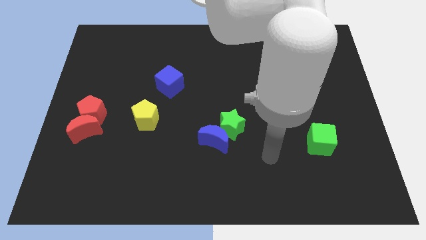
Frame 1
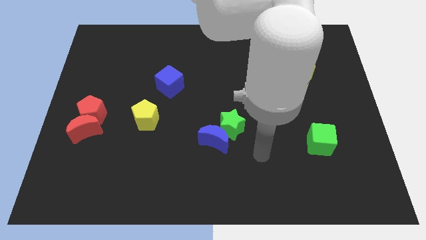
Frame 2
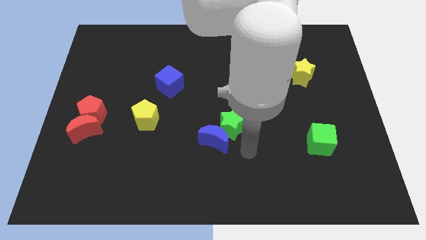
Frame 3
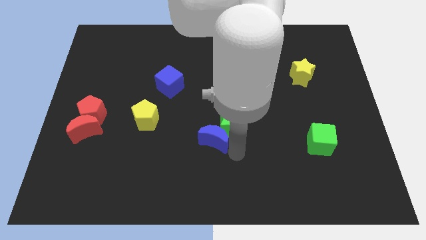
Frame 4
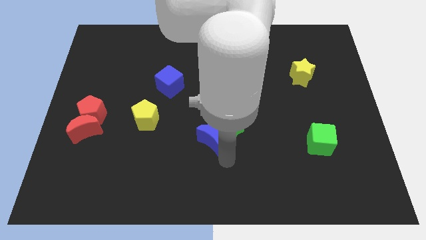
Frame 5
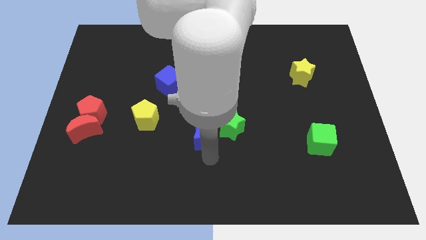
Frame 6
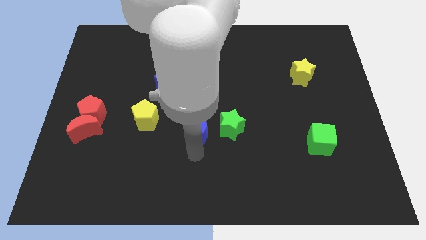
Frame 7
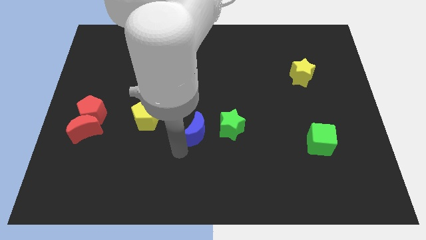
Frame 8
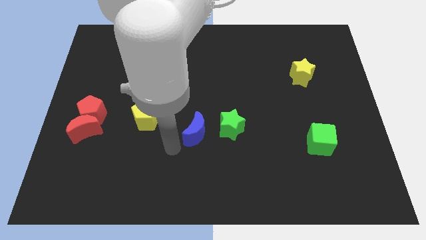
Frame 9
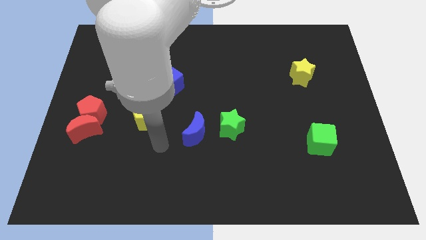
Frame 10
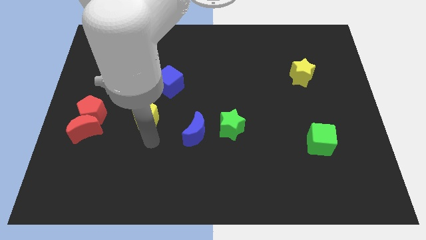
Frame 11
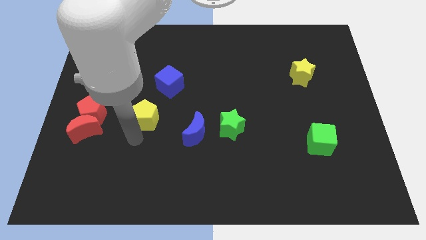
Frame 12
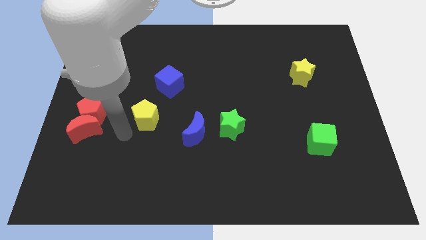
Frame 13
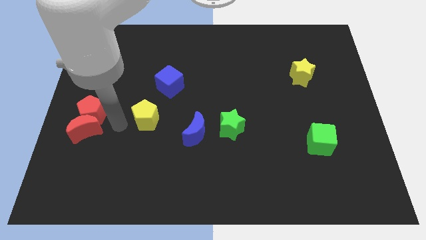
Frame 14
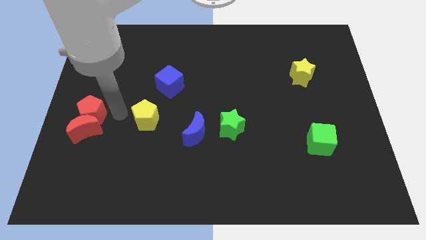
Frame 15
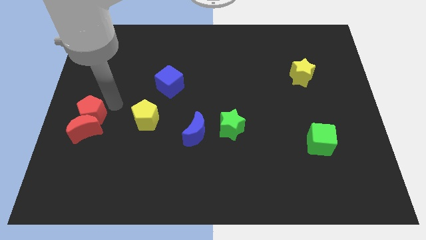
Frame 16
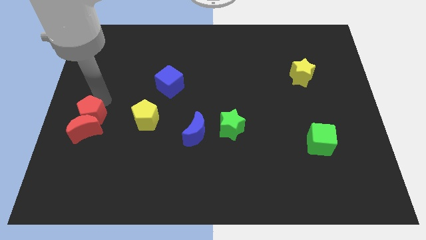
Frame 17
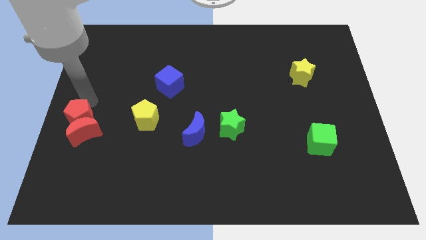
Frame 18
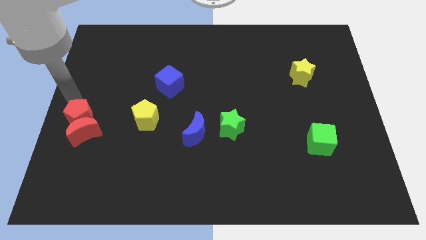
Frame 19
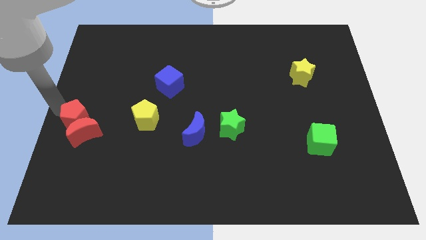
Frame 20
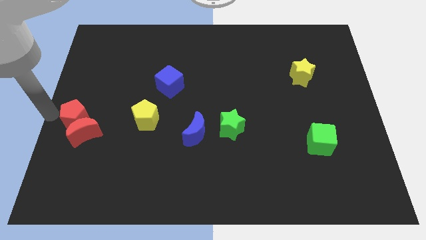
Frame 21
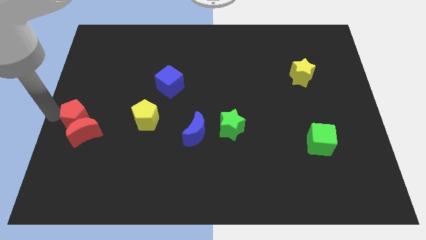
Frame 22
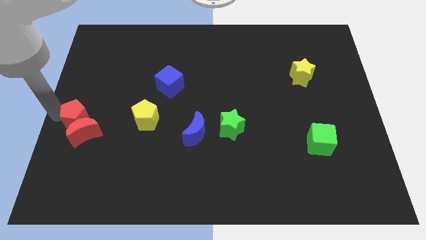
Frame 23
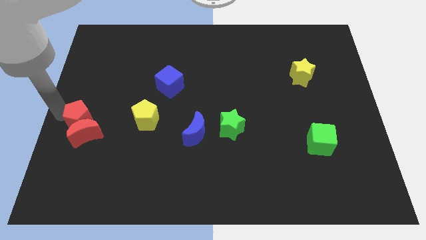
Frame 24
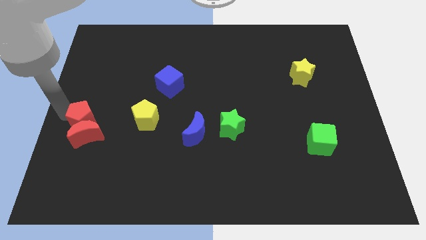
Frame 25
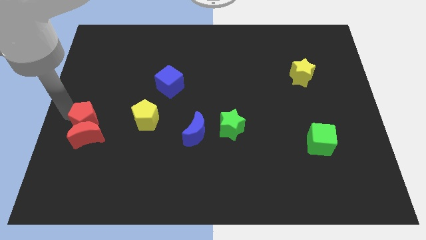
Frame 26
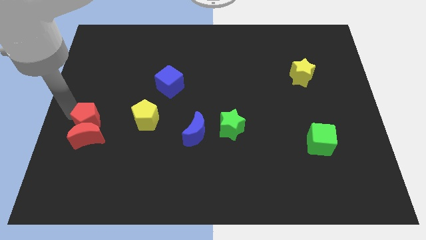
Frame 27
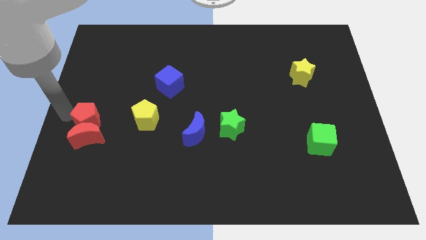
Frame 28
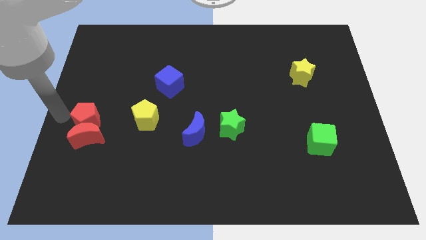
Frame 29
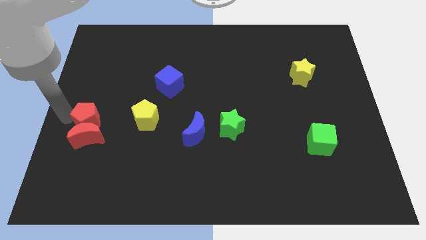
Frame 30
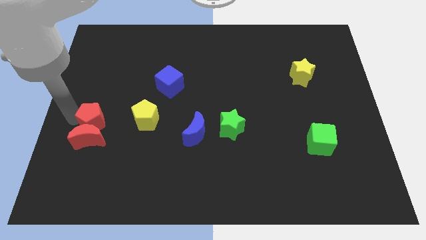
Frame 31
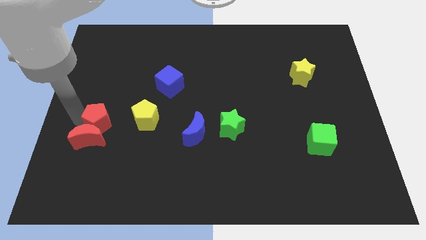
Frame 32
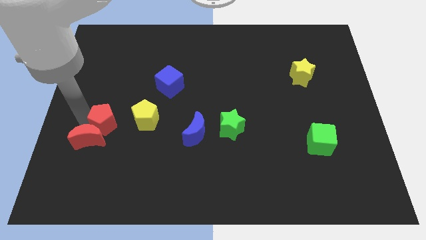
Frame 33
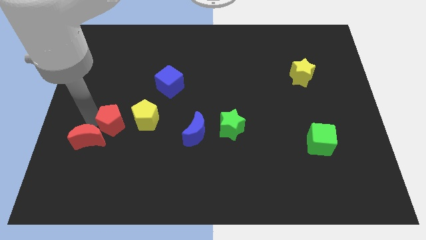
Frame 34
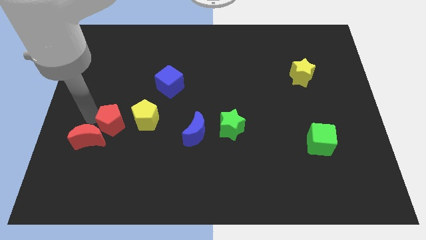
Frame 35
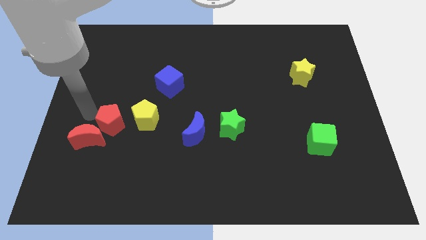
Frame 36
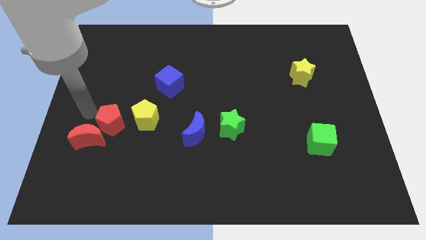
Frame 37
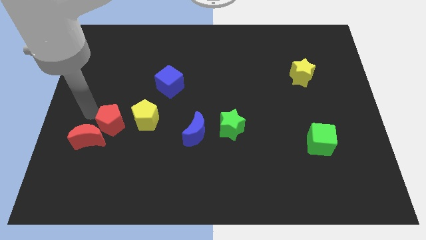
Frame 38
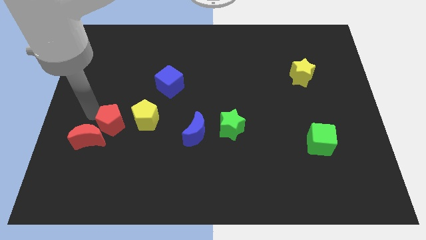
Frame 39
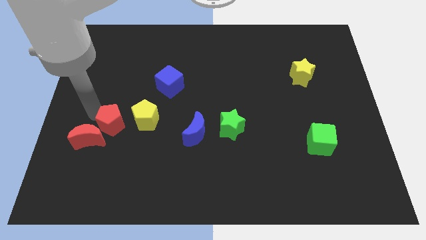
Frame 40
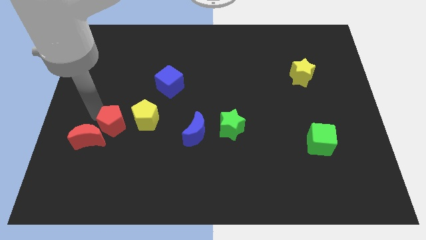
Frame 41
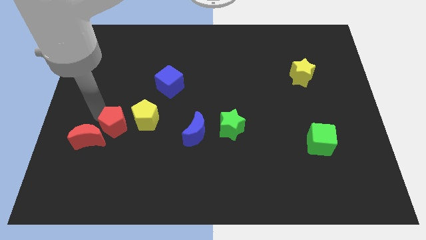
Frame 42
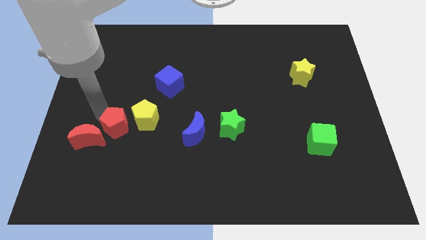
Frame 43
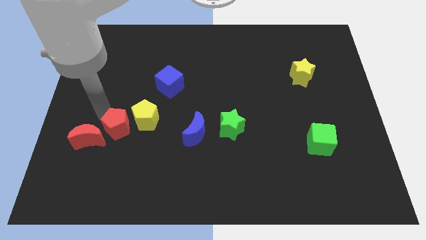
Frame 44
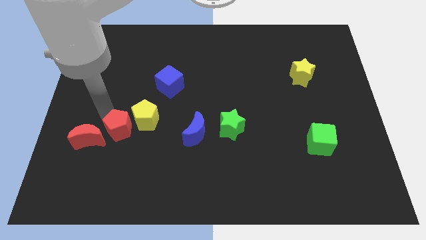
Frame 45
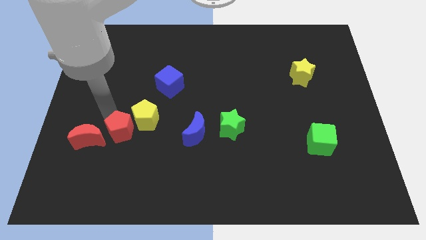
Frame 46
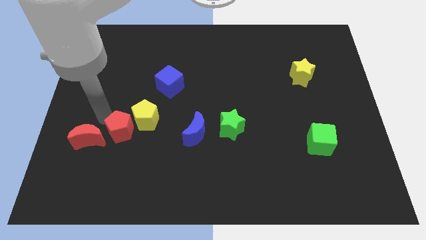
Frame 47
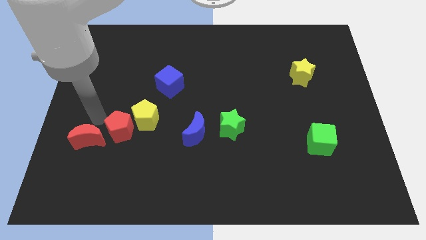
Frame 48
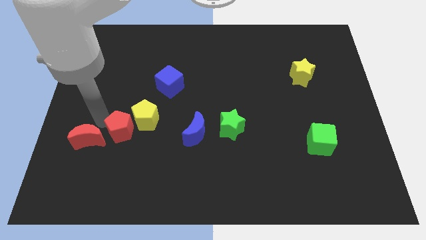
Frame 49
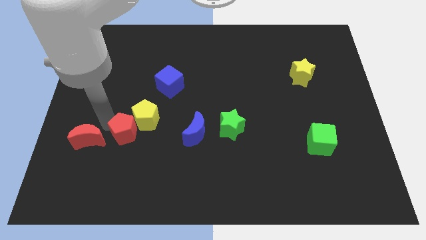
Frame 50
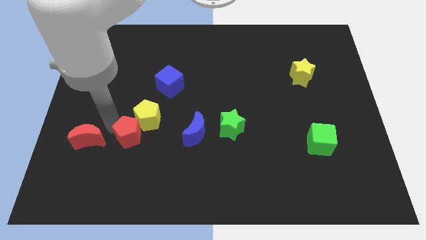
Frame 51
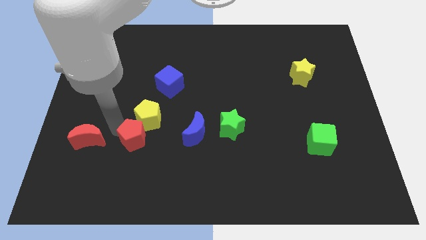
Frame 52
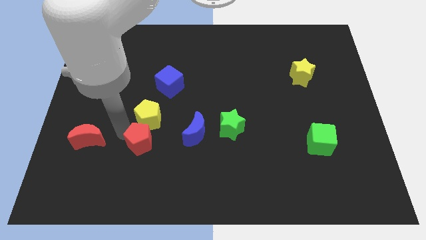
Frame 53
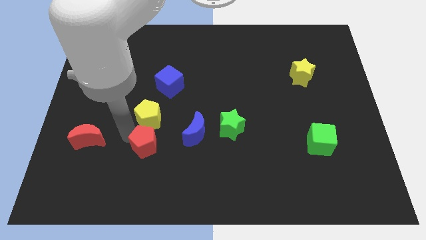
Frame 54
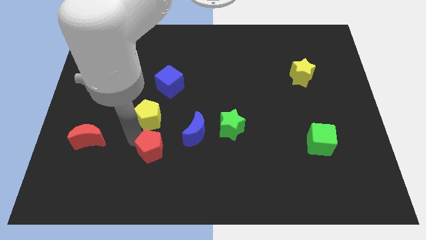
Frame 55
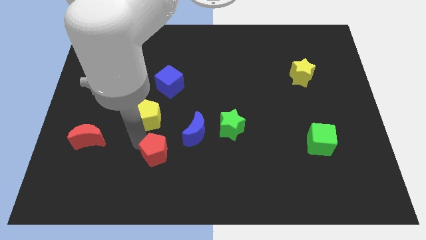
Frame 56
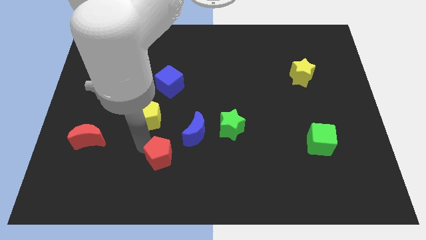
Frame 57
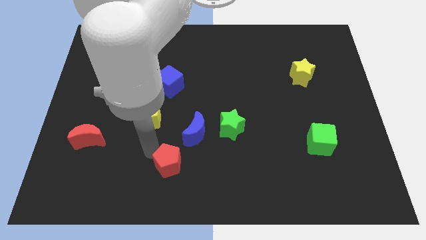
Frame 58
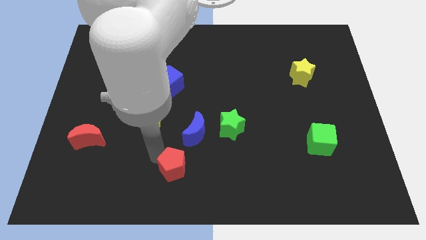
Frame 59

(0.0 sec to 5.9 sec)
move the red pentagon to the bottom side

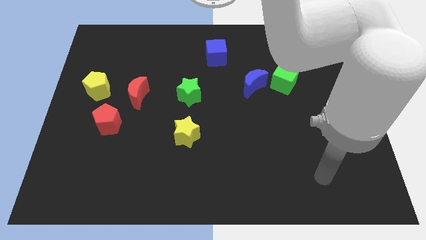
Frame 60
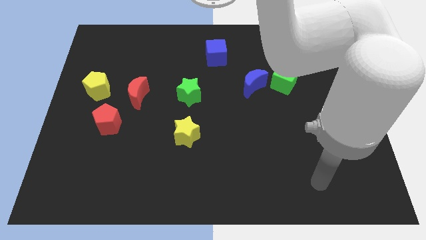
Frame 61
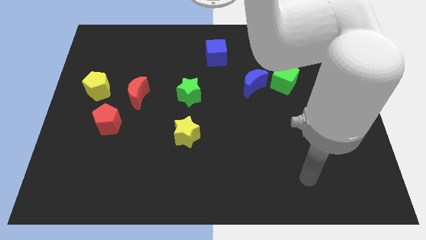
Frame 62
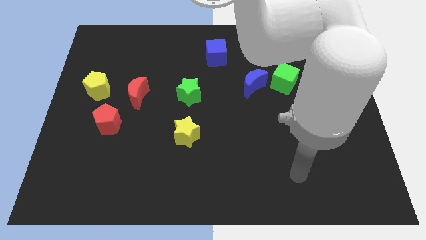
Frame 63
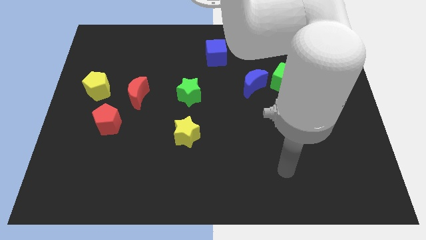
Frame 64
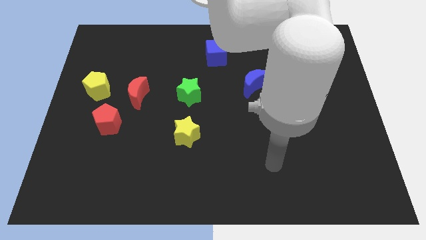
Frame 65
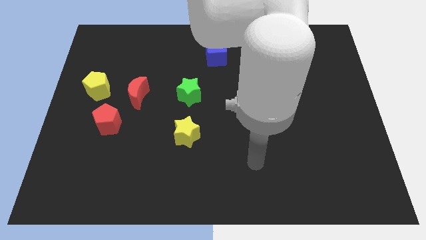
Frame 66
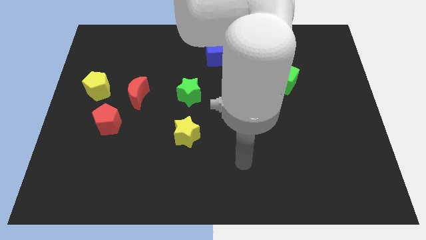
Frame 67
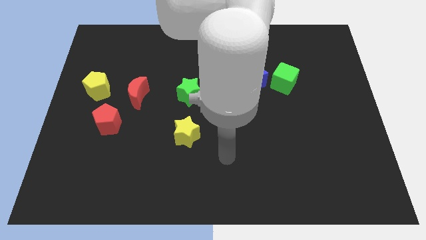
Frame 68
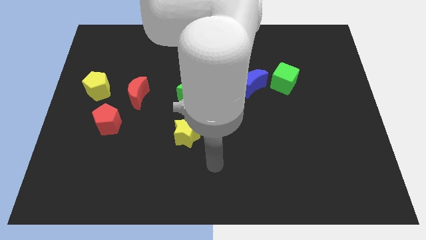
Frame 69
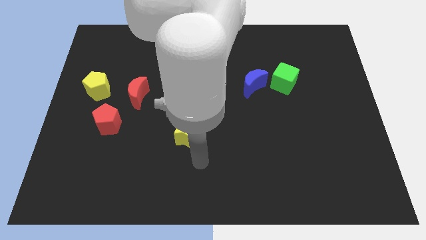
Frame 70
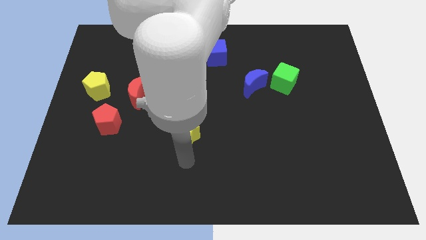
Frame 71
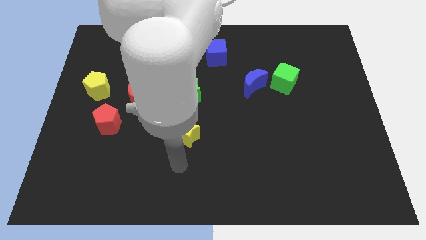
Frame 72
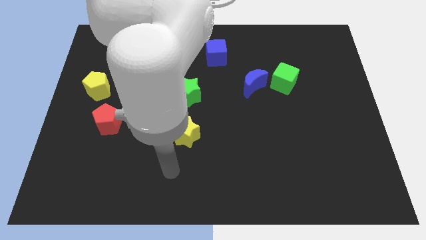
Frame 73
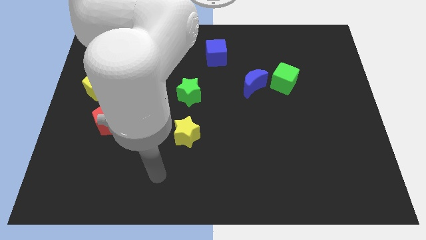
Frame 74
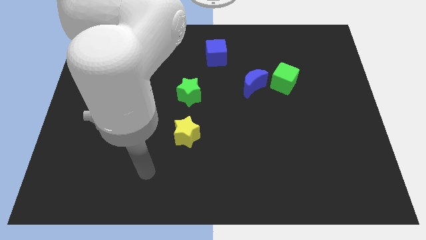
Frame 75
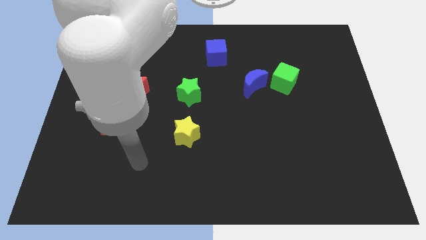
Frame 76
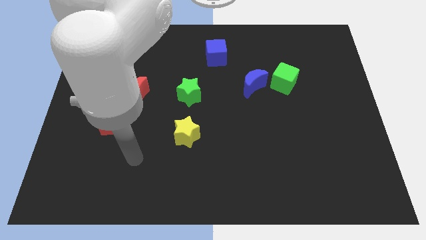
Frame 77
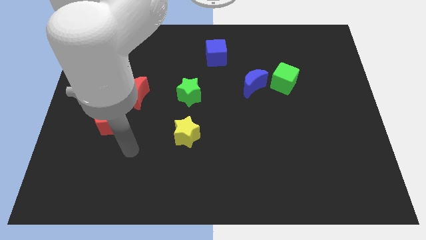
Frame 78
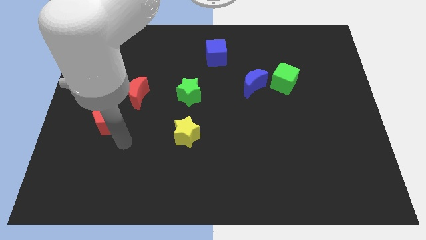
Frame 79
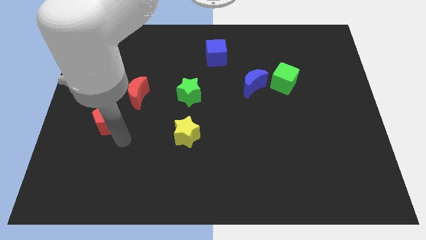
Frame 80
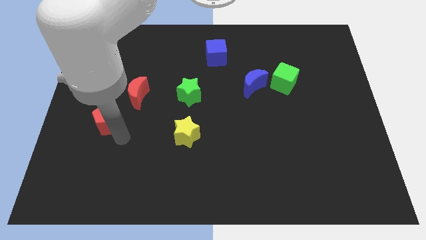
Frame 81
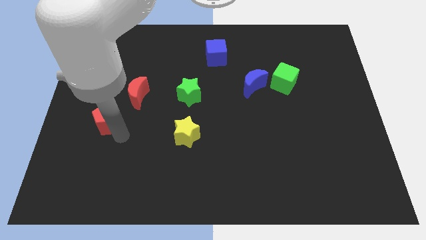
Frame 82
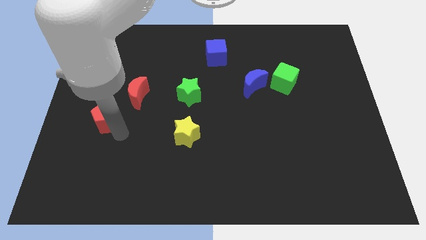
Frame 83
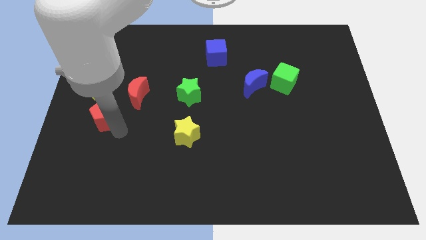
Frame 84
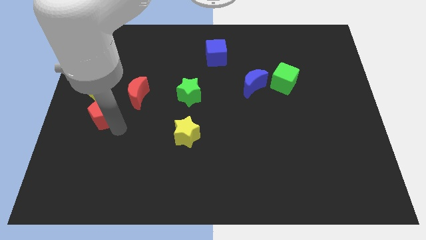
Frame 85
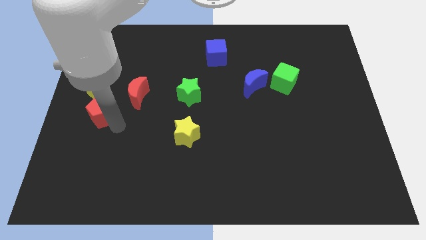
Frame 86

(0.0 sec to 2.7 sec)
put the red pentagon to the left side
